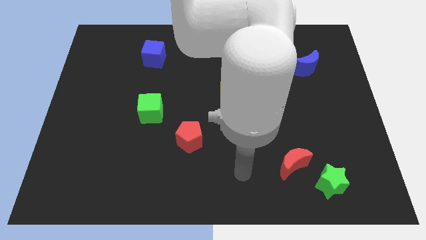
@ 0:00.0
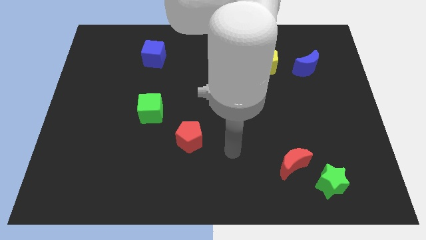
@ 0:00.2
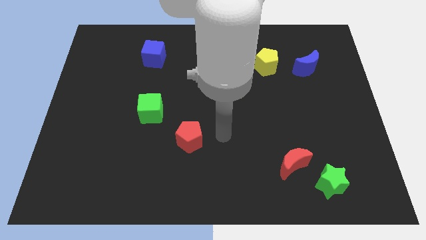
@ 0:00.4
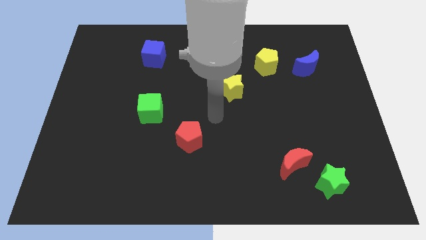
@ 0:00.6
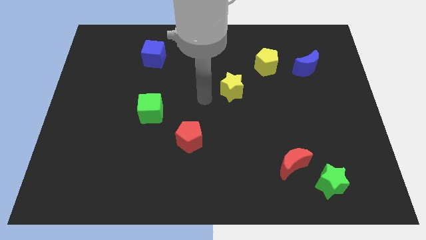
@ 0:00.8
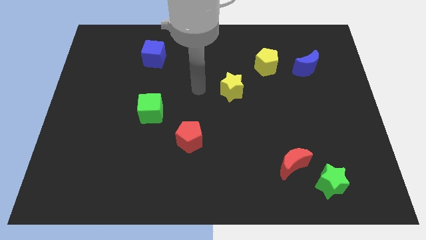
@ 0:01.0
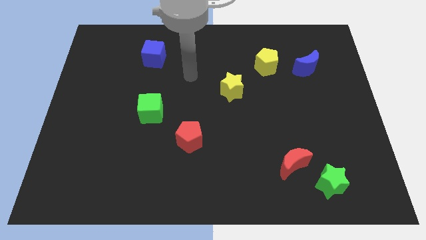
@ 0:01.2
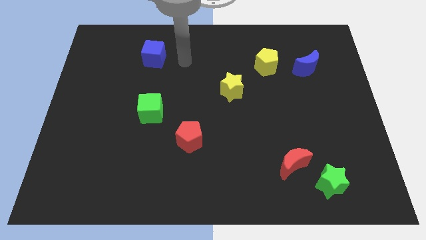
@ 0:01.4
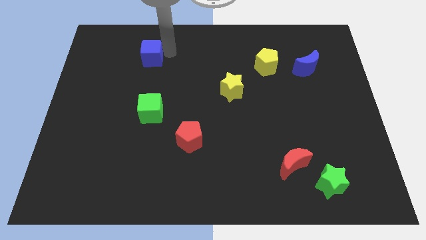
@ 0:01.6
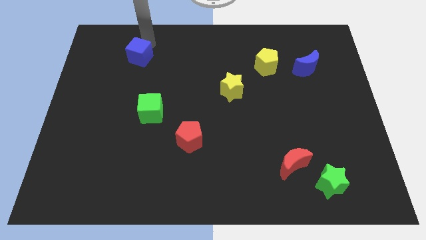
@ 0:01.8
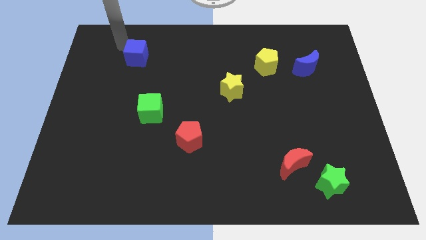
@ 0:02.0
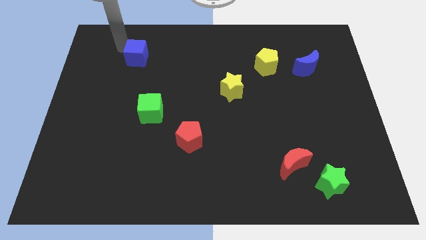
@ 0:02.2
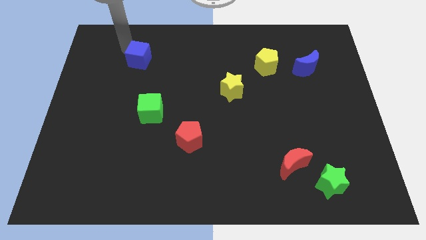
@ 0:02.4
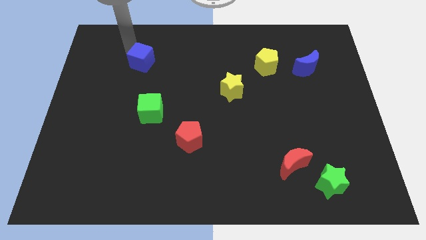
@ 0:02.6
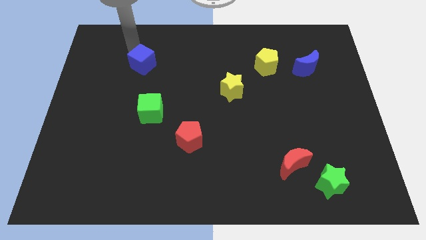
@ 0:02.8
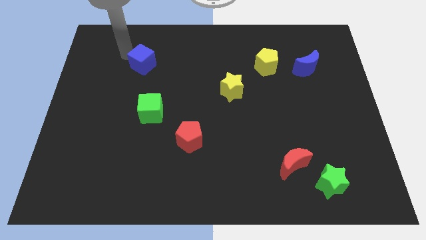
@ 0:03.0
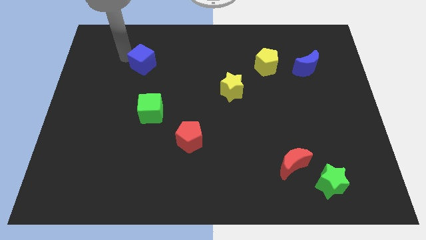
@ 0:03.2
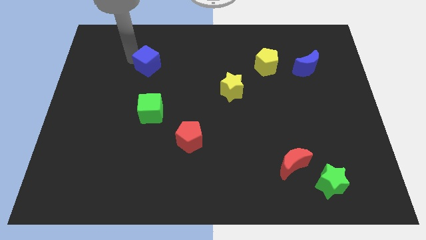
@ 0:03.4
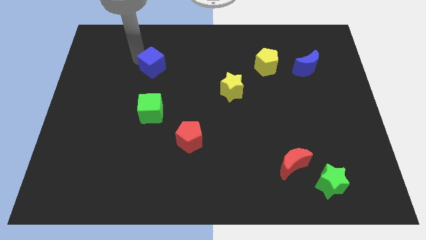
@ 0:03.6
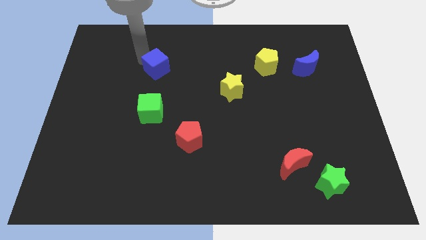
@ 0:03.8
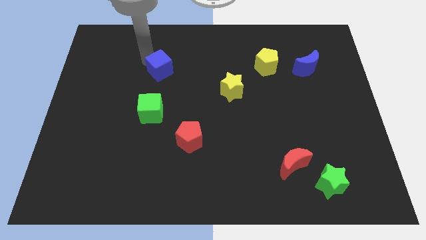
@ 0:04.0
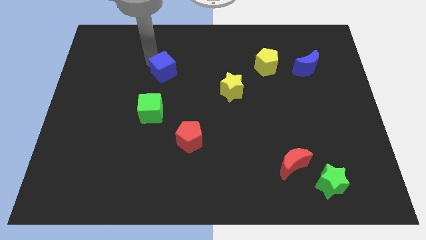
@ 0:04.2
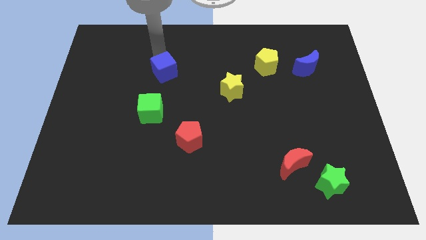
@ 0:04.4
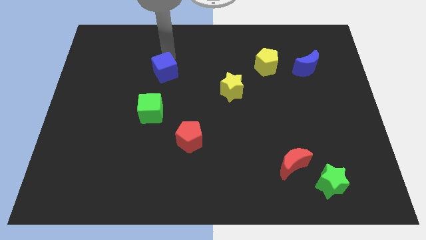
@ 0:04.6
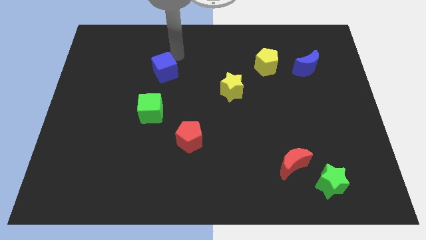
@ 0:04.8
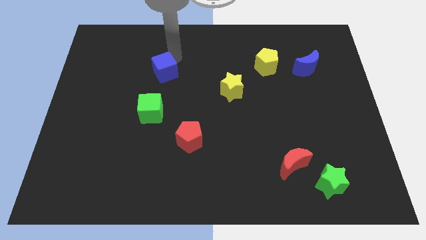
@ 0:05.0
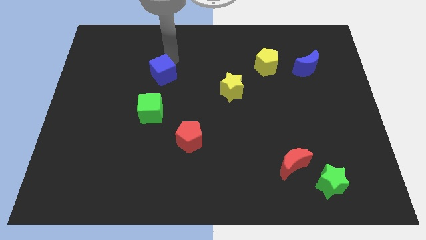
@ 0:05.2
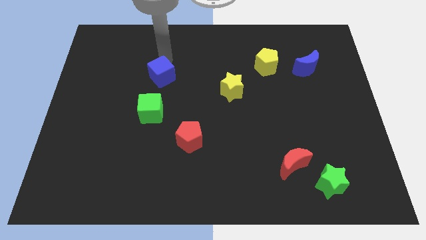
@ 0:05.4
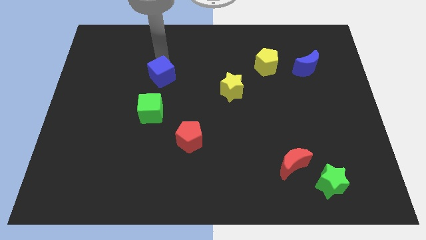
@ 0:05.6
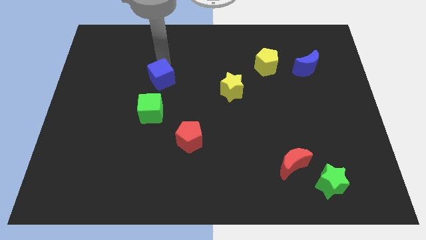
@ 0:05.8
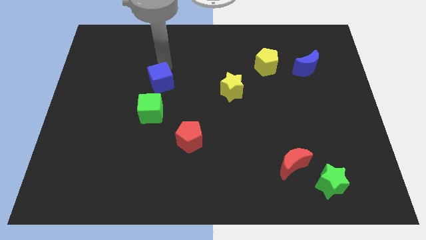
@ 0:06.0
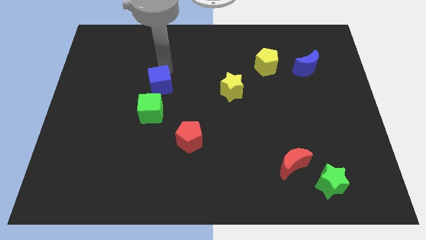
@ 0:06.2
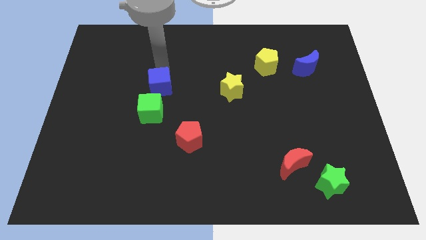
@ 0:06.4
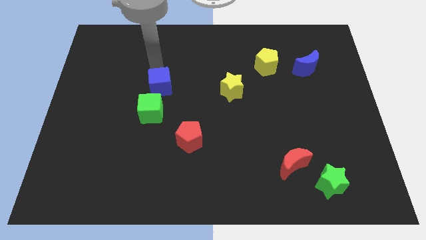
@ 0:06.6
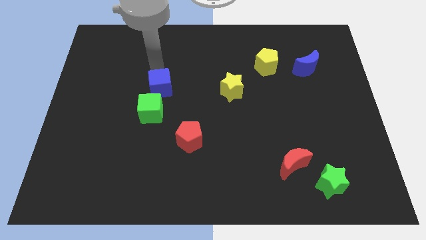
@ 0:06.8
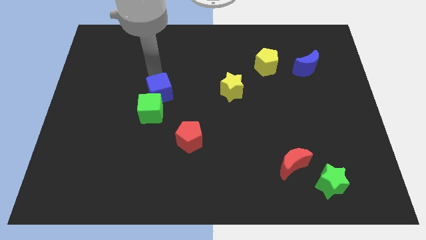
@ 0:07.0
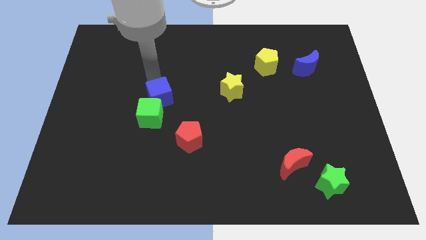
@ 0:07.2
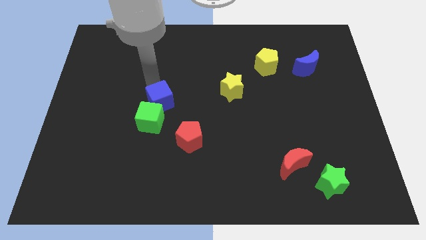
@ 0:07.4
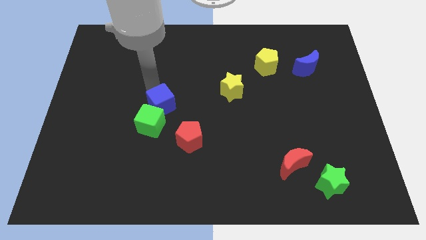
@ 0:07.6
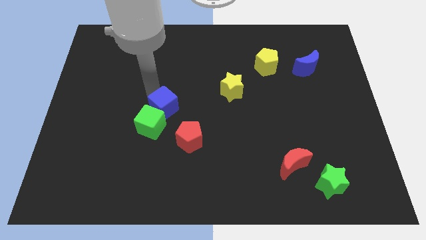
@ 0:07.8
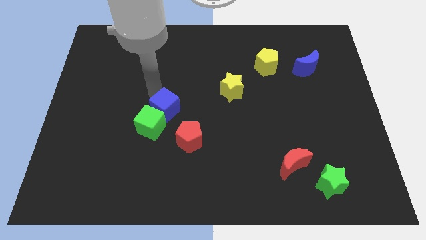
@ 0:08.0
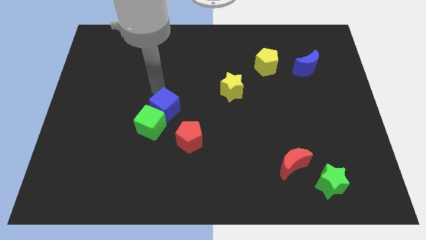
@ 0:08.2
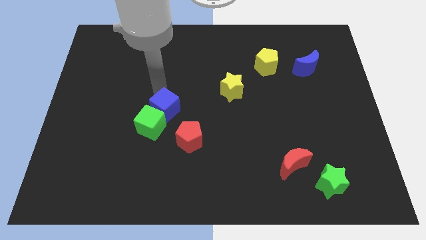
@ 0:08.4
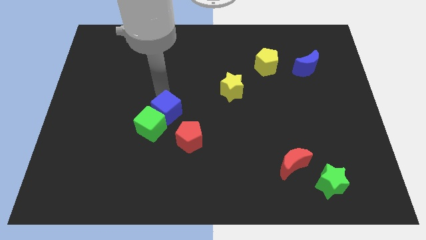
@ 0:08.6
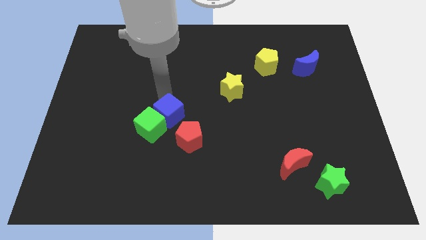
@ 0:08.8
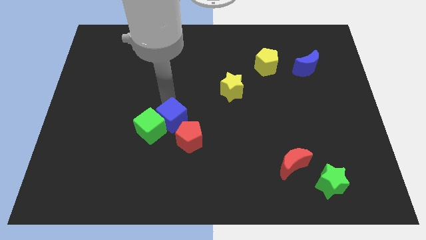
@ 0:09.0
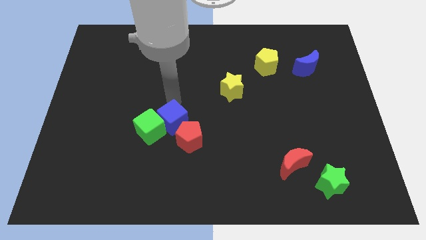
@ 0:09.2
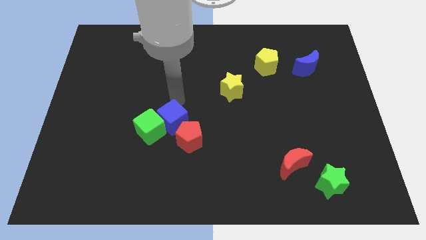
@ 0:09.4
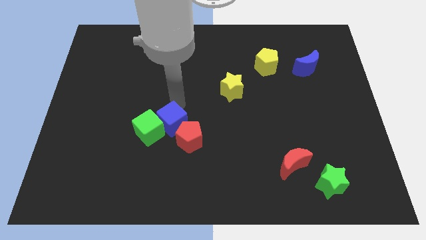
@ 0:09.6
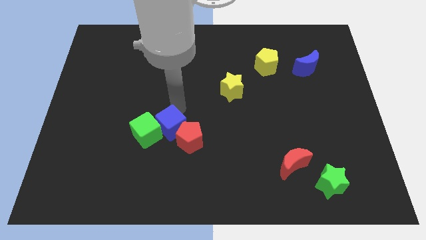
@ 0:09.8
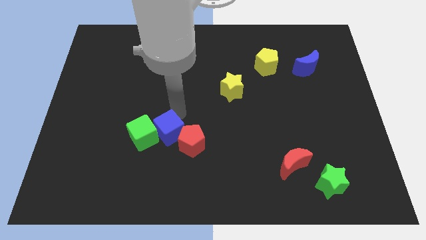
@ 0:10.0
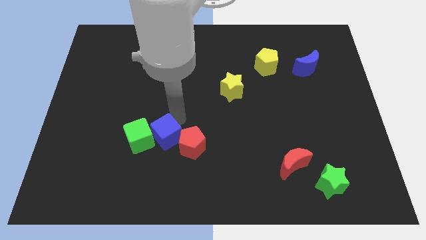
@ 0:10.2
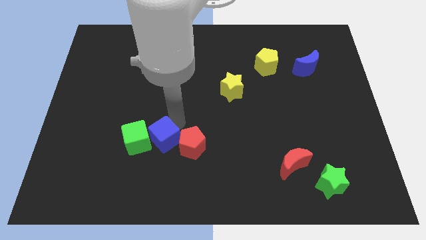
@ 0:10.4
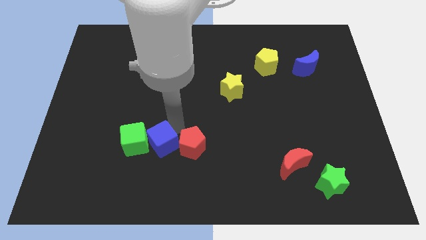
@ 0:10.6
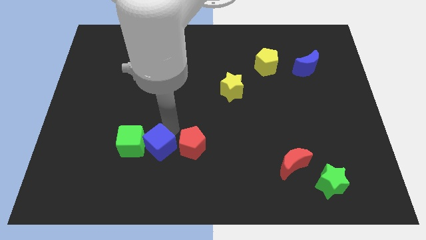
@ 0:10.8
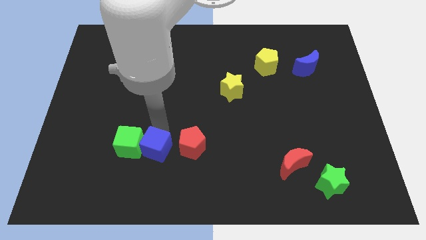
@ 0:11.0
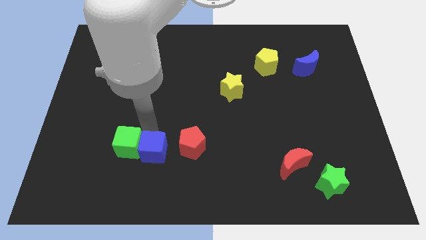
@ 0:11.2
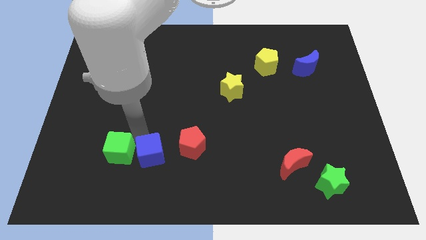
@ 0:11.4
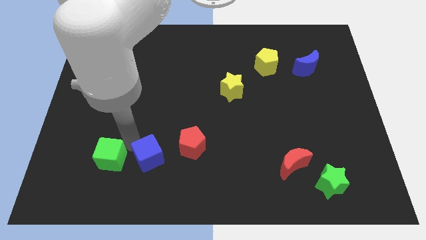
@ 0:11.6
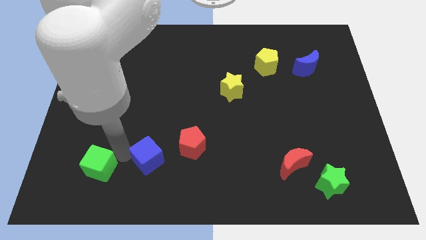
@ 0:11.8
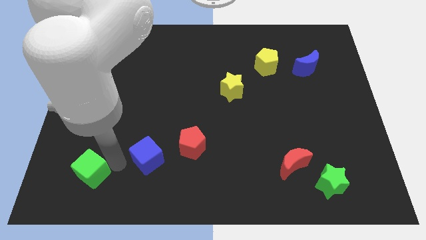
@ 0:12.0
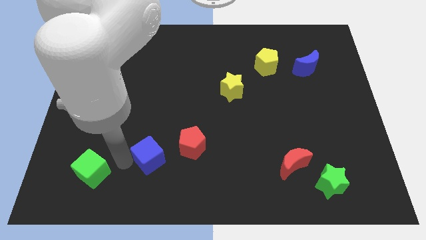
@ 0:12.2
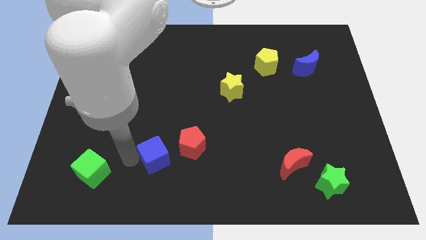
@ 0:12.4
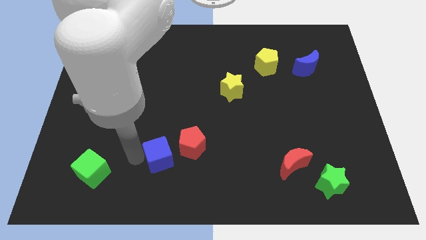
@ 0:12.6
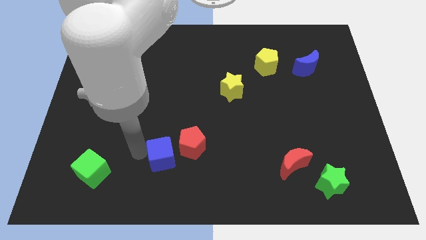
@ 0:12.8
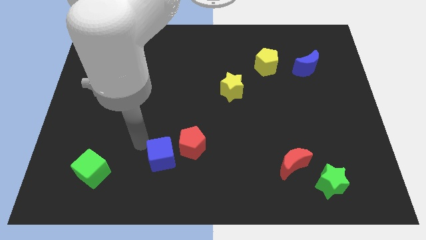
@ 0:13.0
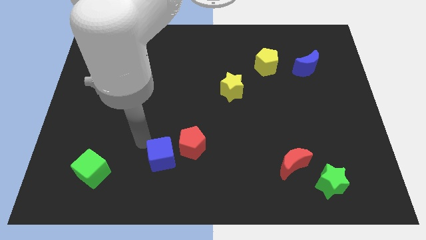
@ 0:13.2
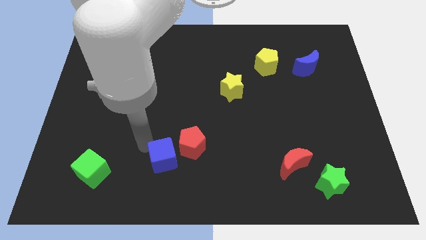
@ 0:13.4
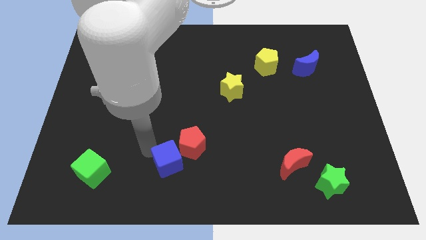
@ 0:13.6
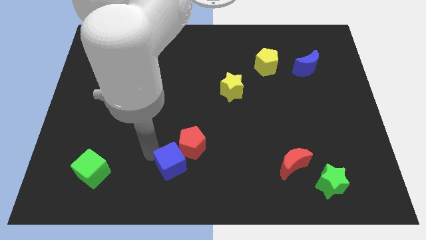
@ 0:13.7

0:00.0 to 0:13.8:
slide the blue cube below the red pentagon

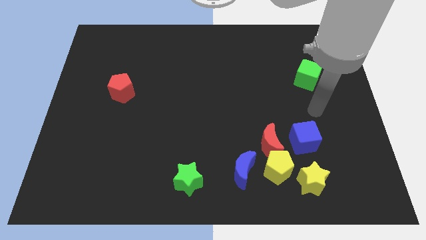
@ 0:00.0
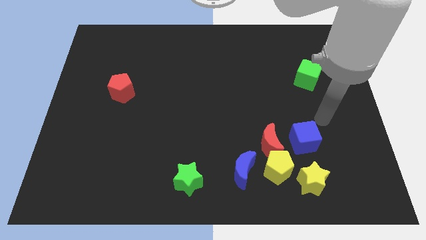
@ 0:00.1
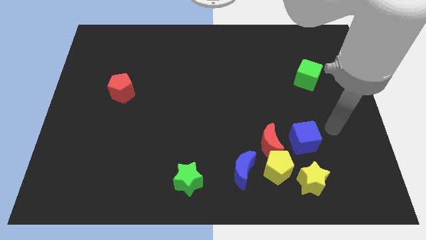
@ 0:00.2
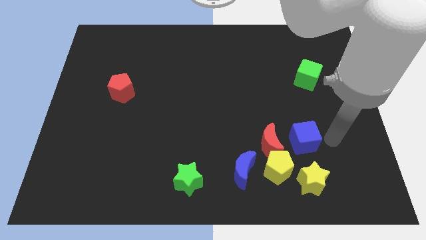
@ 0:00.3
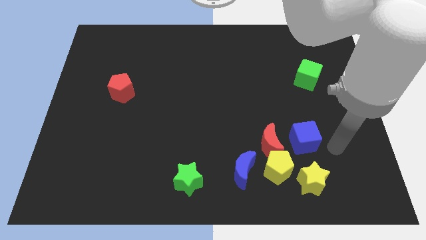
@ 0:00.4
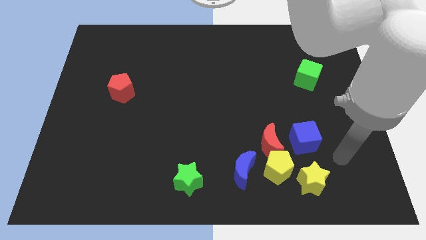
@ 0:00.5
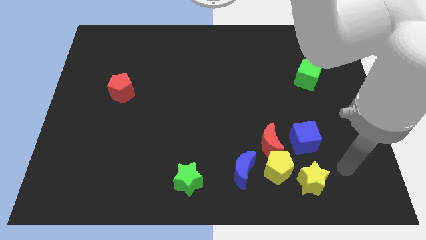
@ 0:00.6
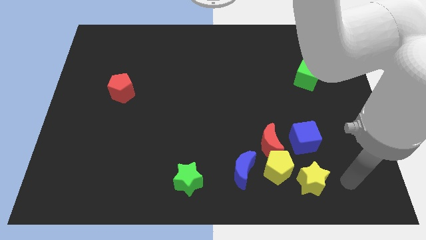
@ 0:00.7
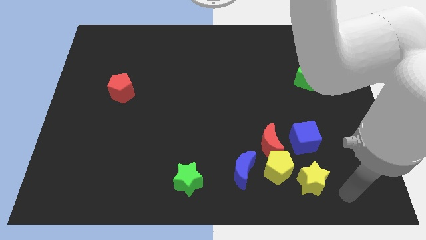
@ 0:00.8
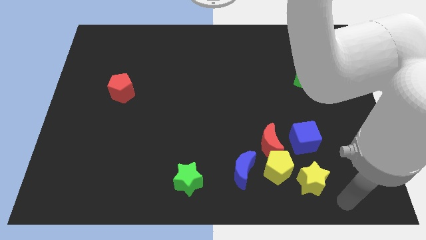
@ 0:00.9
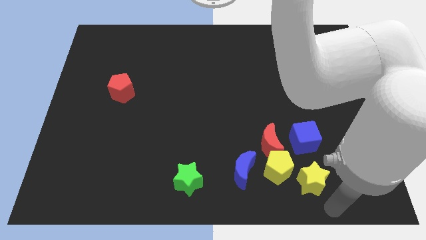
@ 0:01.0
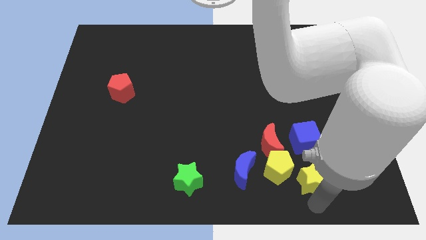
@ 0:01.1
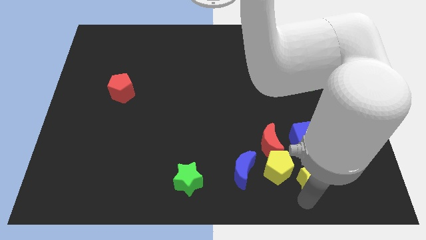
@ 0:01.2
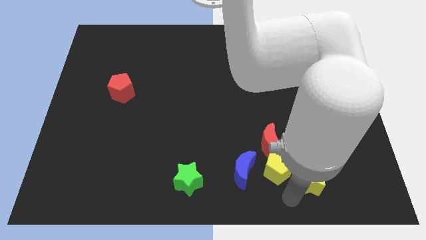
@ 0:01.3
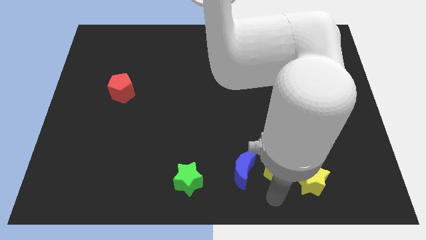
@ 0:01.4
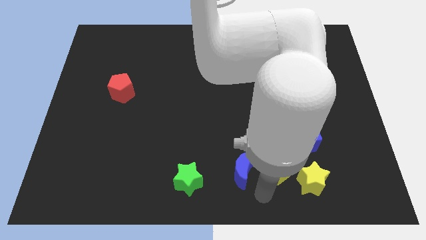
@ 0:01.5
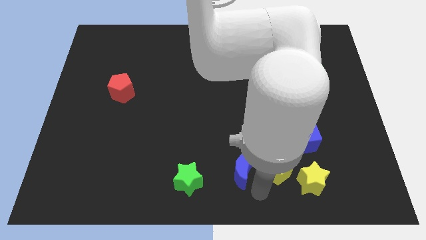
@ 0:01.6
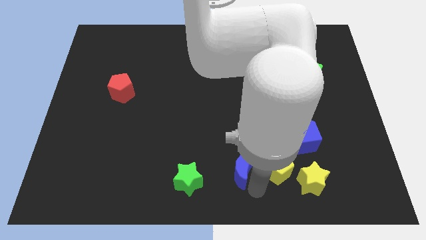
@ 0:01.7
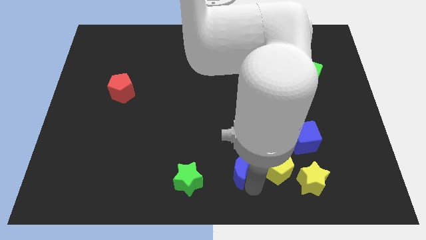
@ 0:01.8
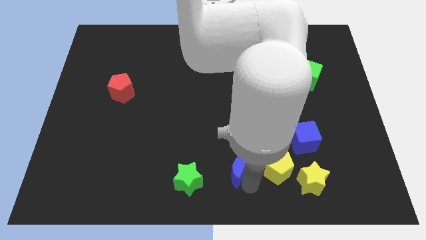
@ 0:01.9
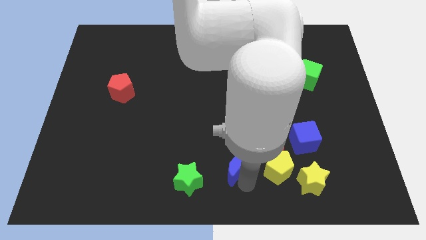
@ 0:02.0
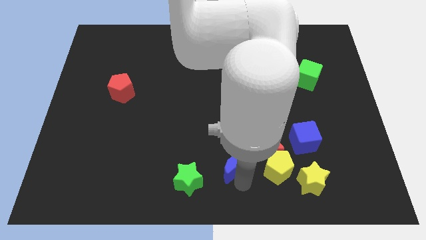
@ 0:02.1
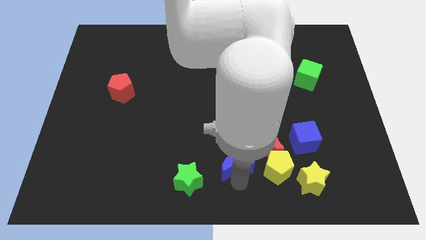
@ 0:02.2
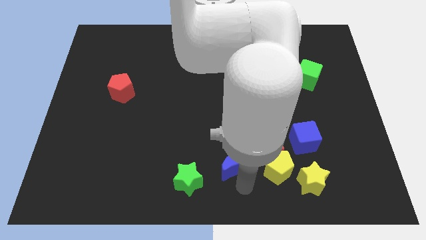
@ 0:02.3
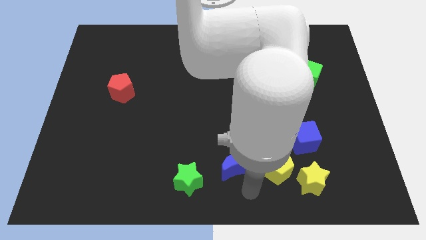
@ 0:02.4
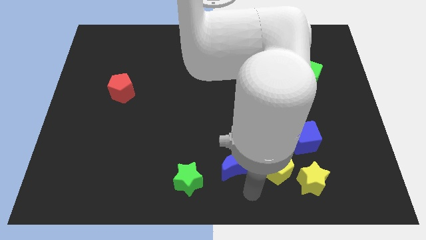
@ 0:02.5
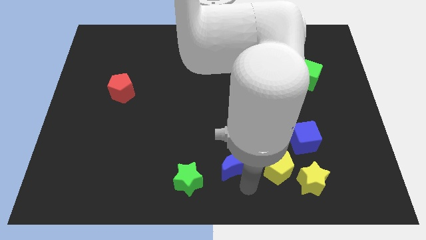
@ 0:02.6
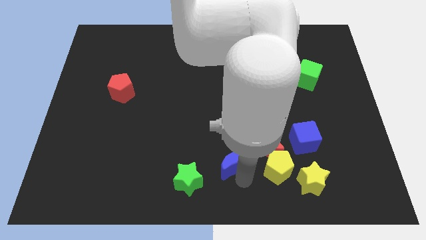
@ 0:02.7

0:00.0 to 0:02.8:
move the blue moon just left of the red moon
